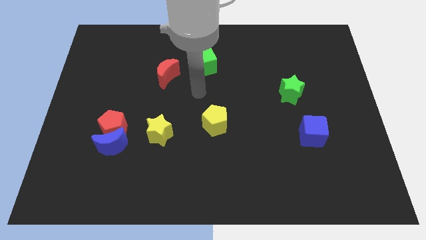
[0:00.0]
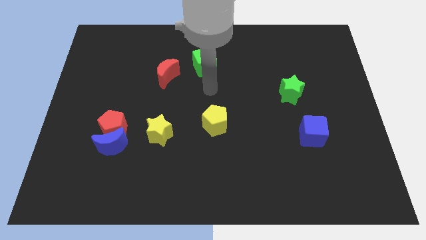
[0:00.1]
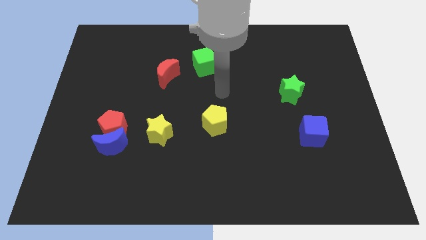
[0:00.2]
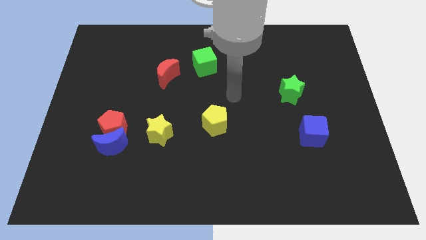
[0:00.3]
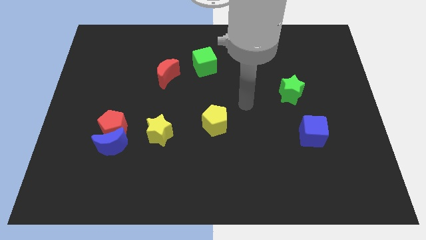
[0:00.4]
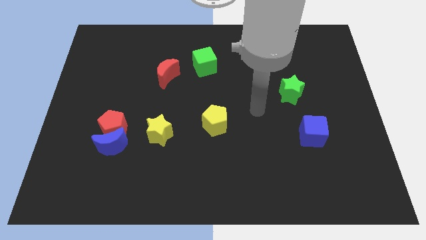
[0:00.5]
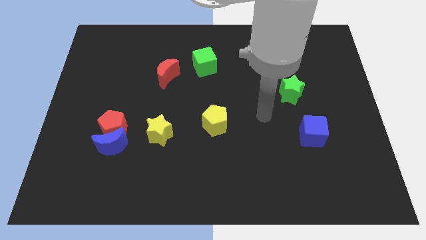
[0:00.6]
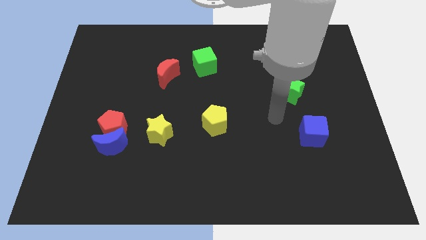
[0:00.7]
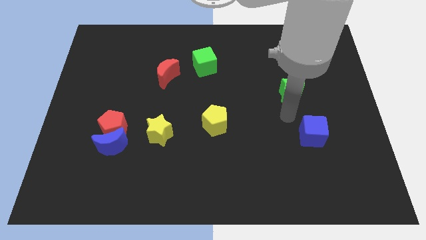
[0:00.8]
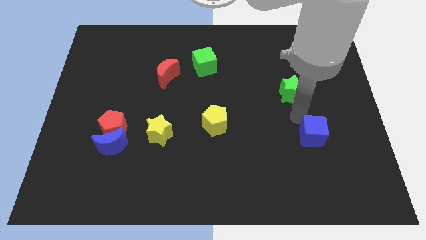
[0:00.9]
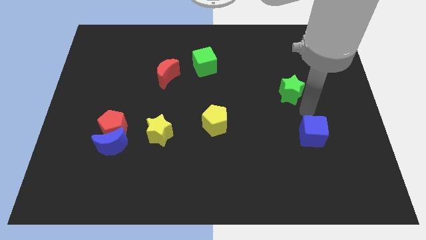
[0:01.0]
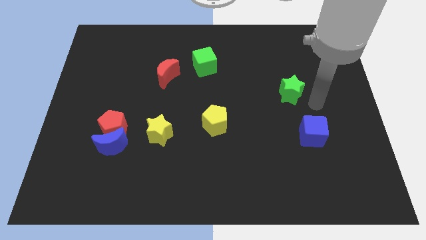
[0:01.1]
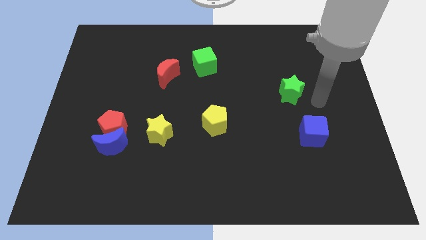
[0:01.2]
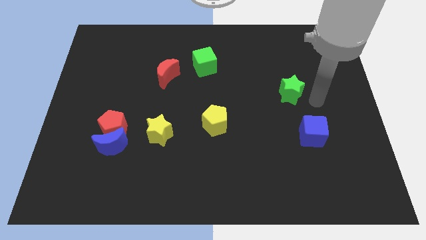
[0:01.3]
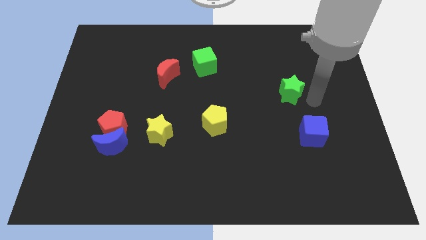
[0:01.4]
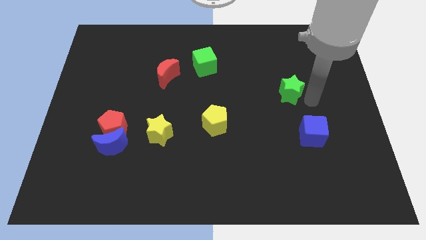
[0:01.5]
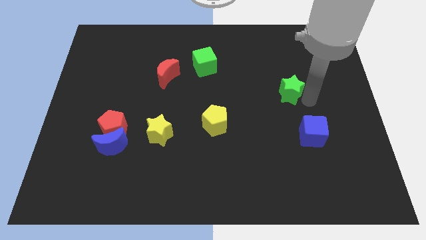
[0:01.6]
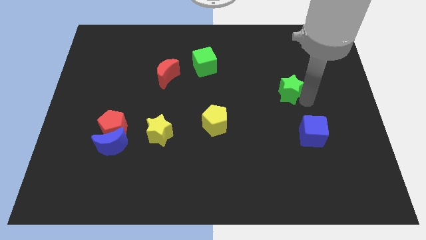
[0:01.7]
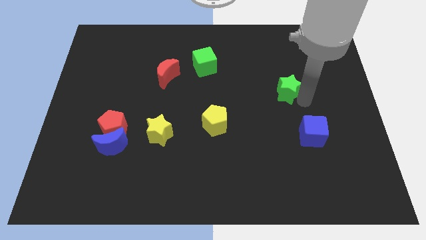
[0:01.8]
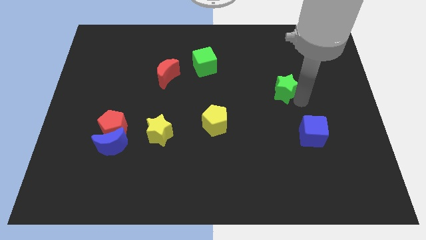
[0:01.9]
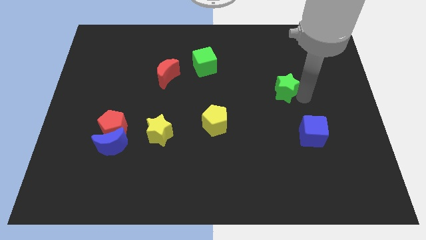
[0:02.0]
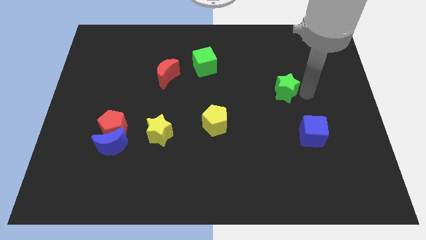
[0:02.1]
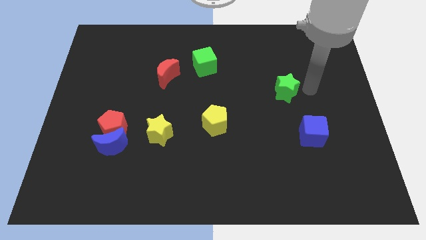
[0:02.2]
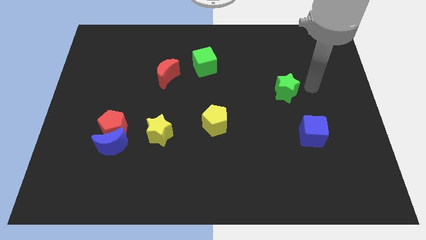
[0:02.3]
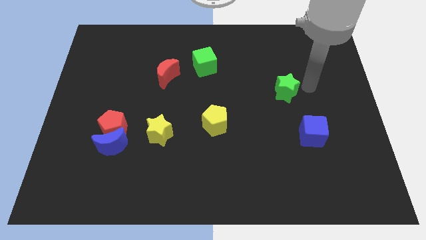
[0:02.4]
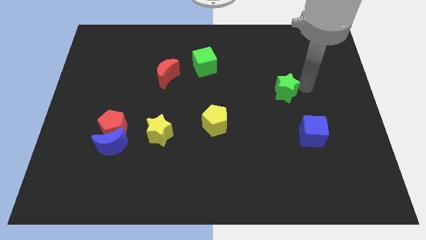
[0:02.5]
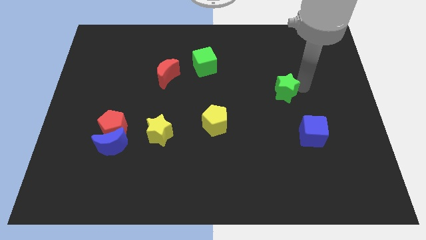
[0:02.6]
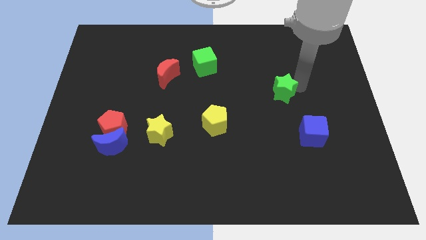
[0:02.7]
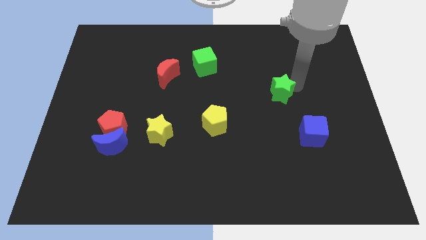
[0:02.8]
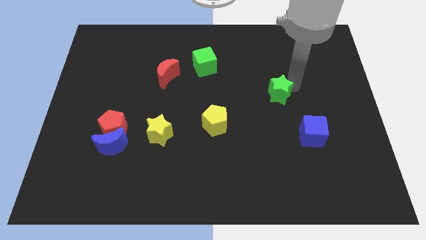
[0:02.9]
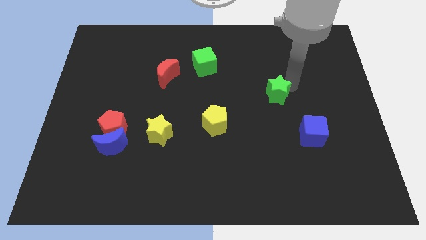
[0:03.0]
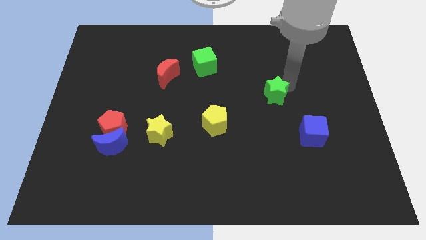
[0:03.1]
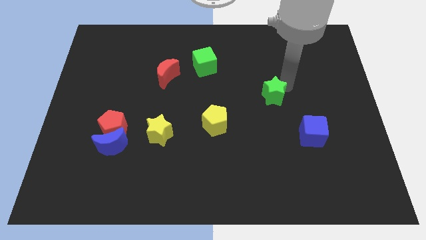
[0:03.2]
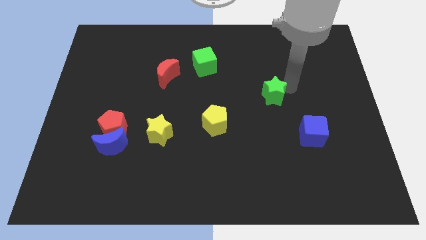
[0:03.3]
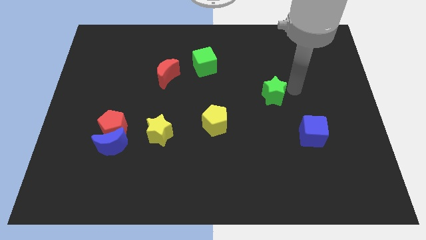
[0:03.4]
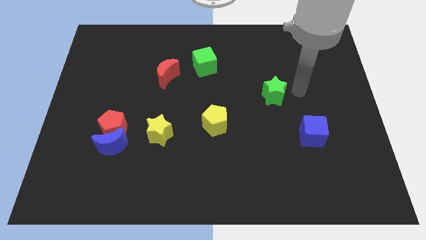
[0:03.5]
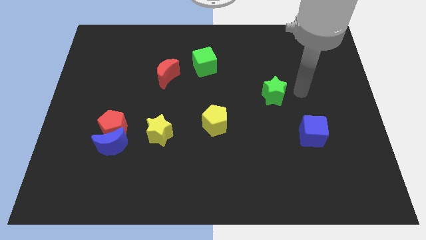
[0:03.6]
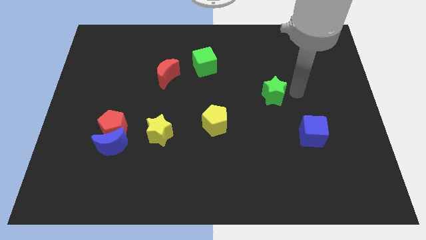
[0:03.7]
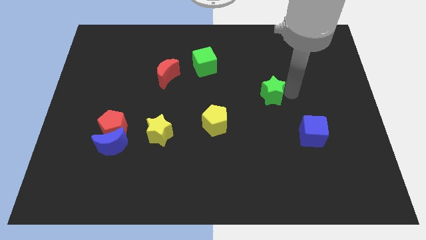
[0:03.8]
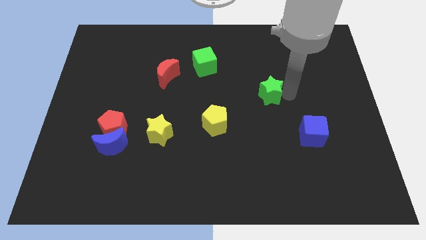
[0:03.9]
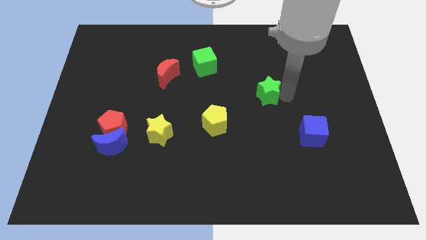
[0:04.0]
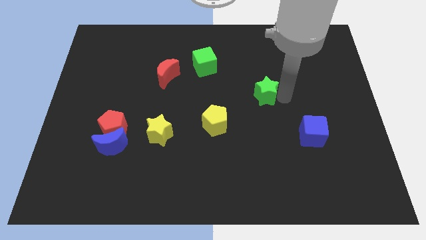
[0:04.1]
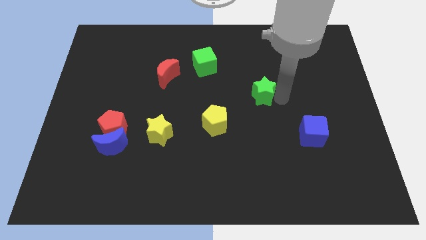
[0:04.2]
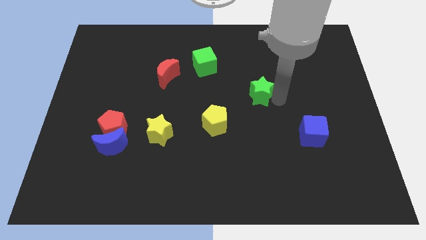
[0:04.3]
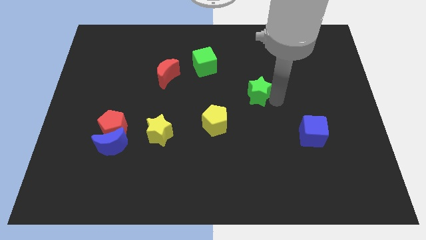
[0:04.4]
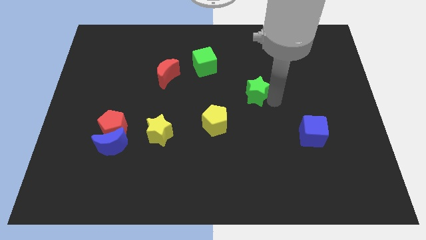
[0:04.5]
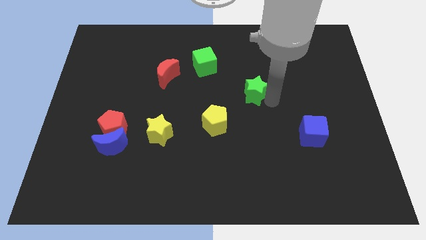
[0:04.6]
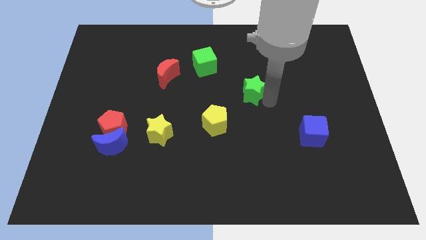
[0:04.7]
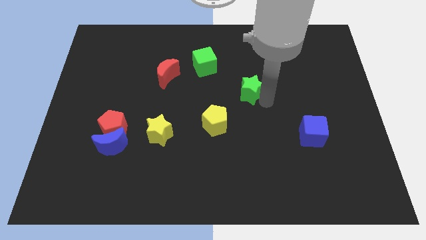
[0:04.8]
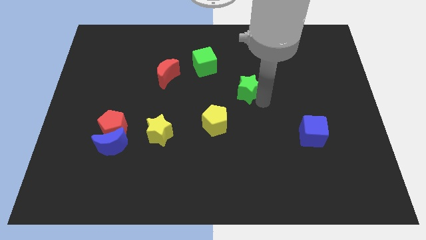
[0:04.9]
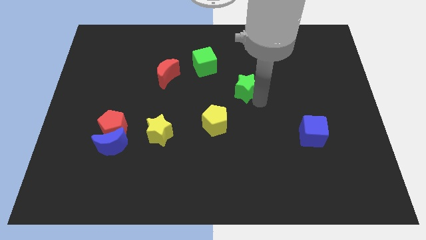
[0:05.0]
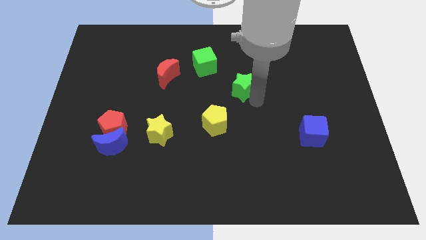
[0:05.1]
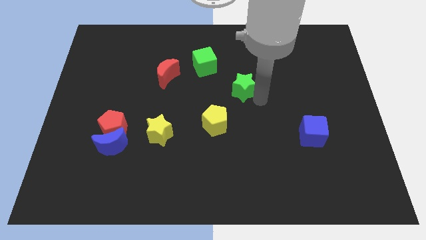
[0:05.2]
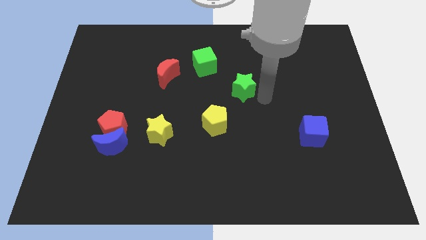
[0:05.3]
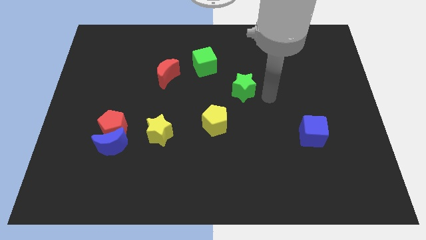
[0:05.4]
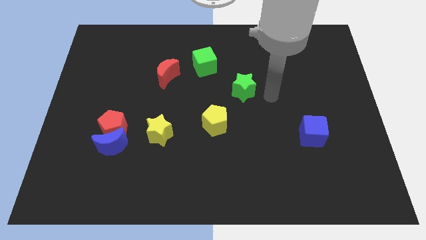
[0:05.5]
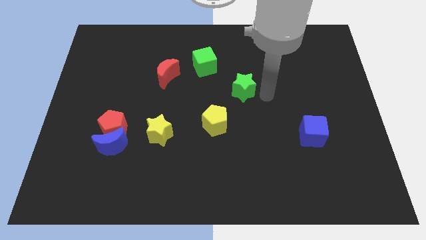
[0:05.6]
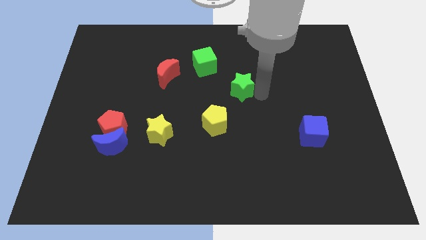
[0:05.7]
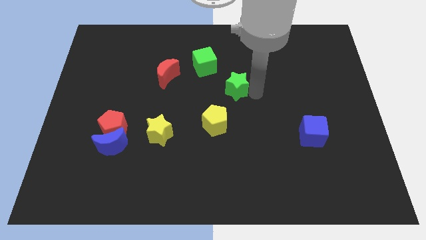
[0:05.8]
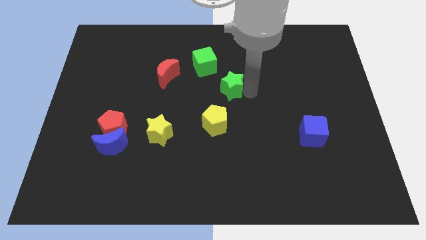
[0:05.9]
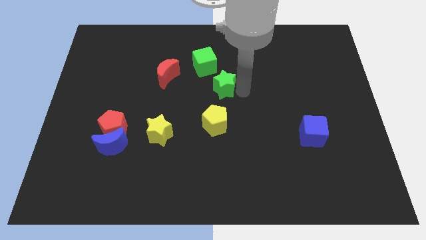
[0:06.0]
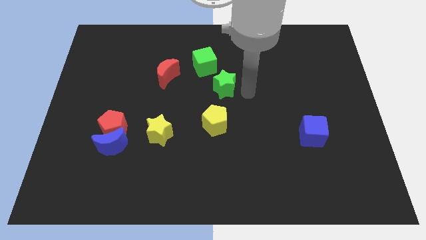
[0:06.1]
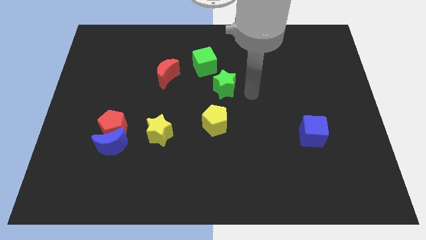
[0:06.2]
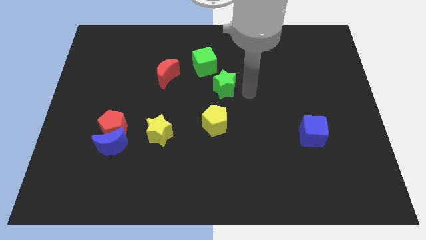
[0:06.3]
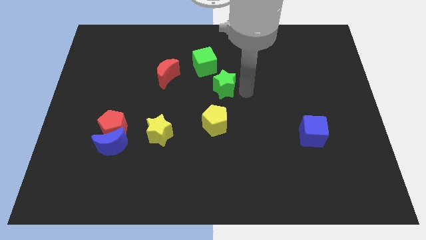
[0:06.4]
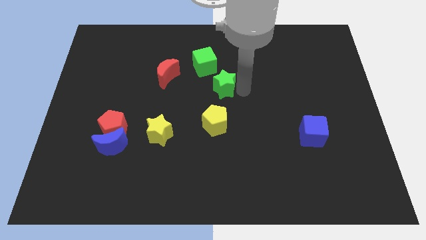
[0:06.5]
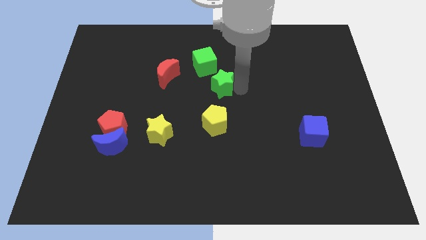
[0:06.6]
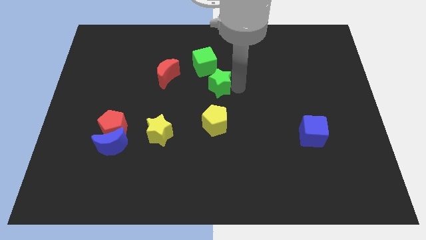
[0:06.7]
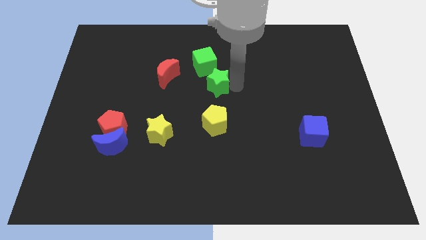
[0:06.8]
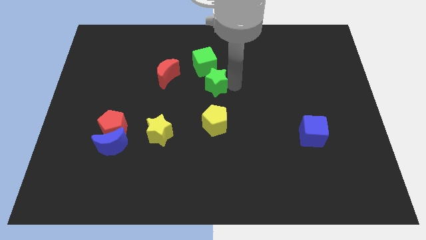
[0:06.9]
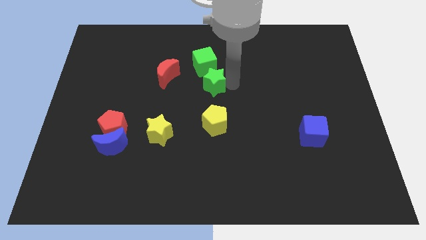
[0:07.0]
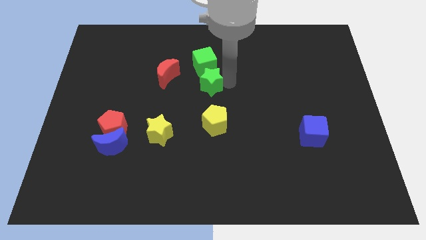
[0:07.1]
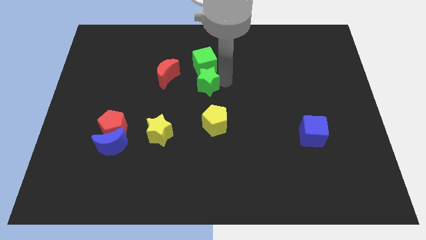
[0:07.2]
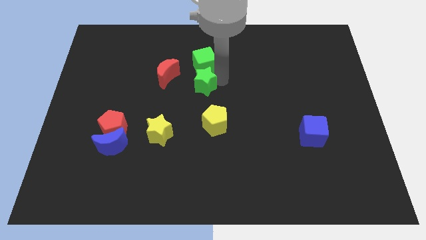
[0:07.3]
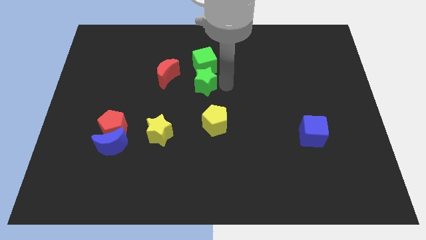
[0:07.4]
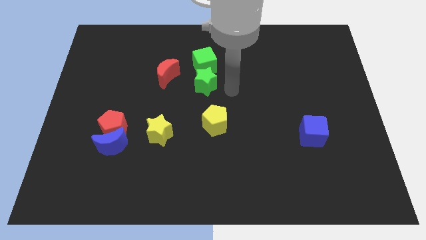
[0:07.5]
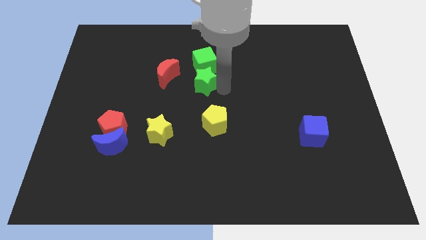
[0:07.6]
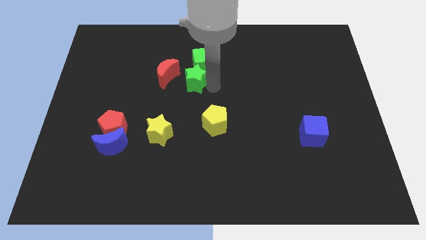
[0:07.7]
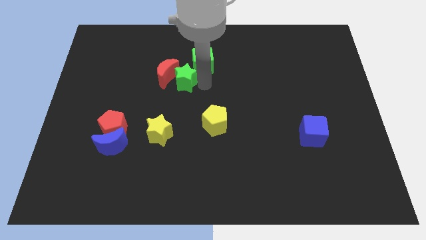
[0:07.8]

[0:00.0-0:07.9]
push the green star towards the red moon
